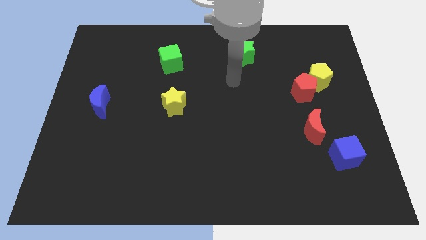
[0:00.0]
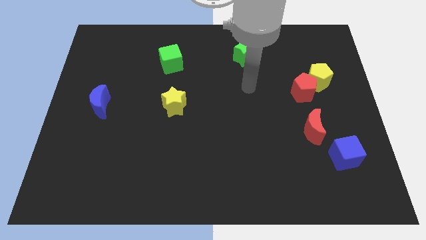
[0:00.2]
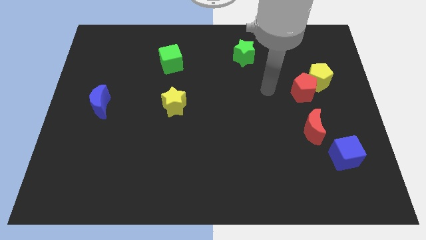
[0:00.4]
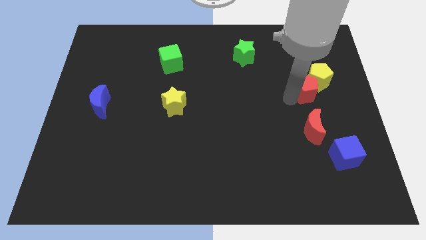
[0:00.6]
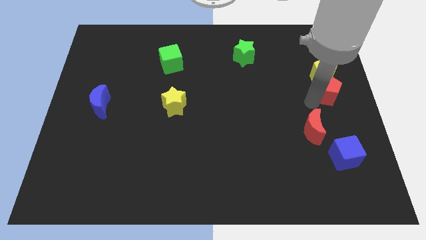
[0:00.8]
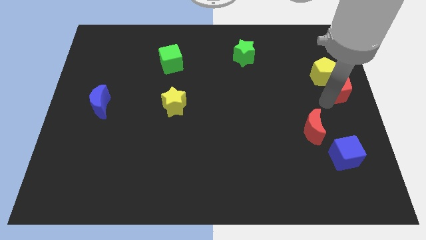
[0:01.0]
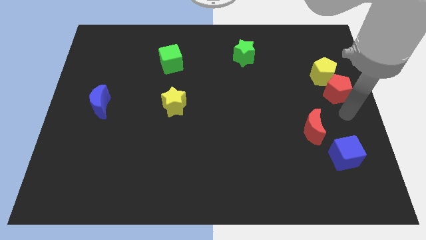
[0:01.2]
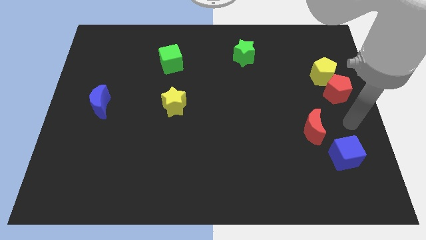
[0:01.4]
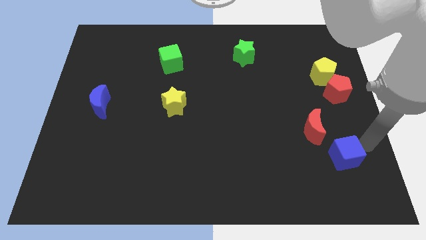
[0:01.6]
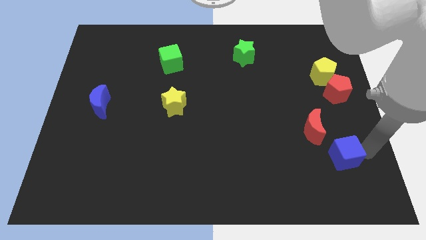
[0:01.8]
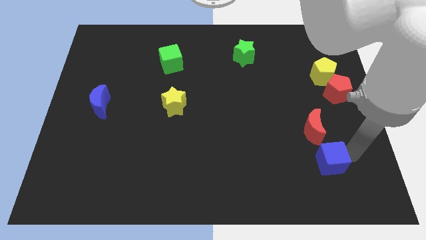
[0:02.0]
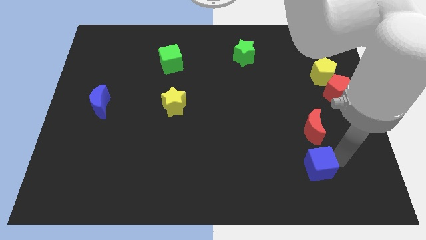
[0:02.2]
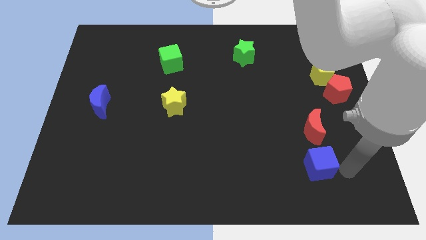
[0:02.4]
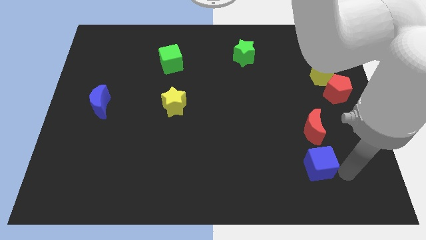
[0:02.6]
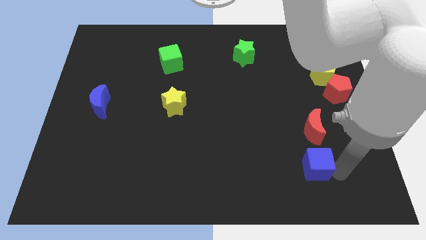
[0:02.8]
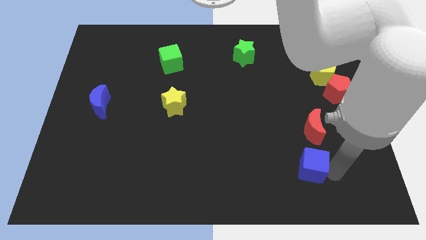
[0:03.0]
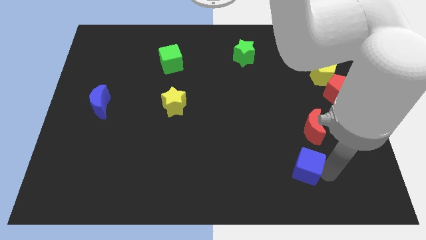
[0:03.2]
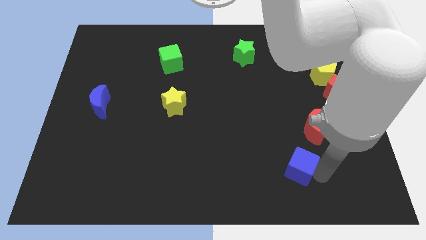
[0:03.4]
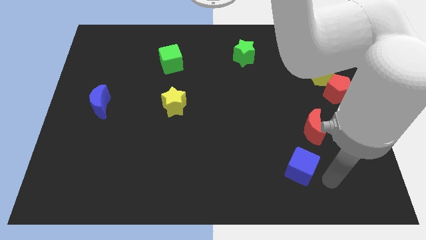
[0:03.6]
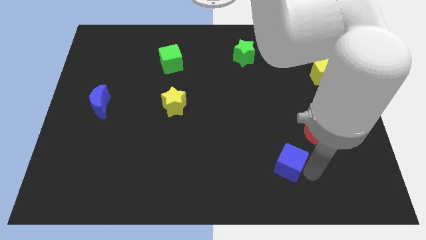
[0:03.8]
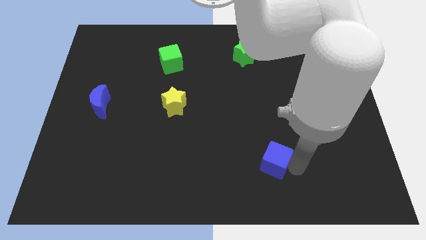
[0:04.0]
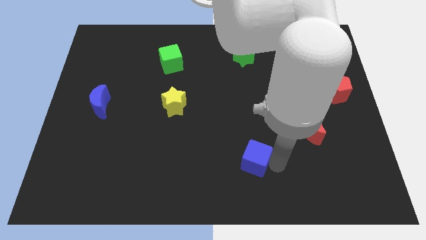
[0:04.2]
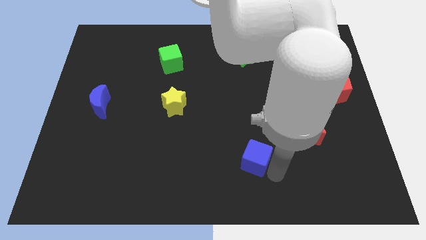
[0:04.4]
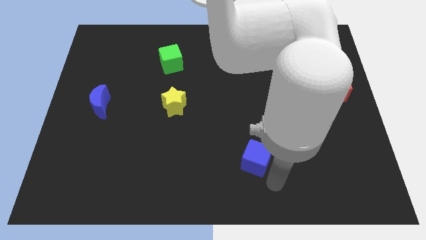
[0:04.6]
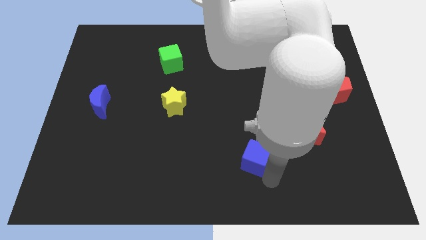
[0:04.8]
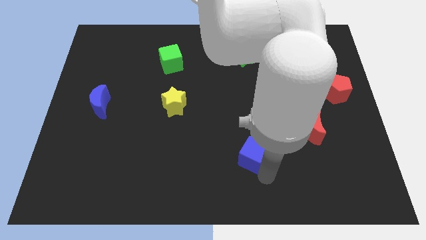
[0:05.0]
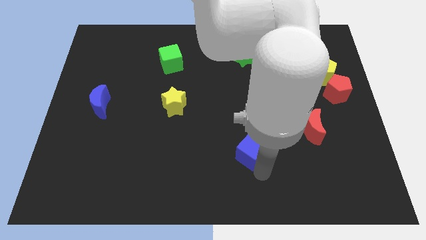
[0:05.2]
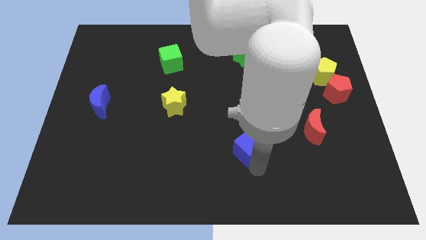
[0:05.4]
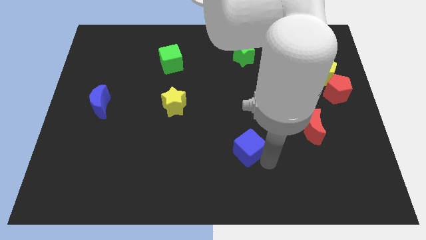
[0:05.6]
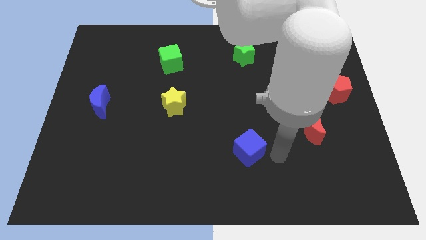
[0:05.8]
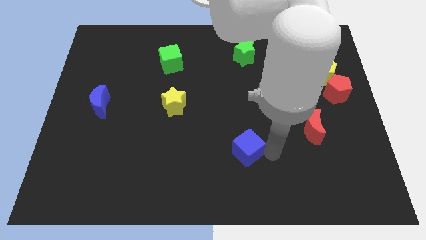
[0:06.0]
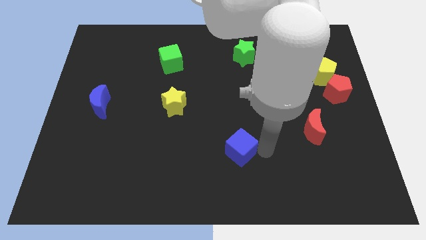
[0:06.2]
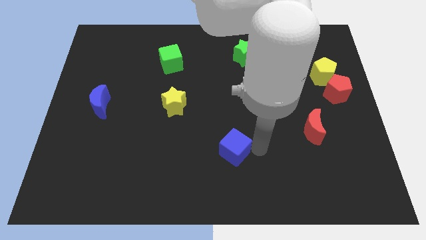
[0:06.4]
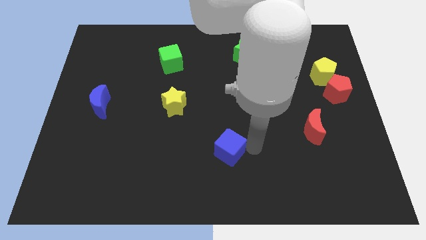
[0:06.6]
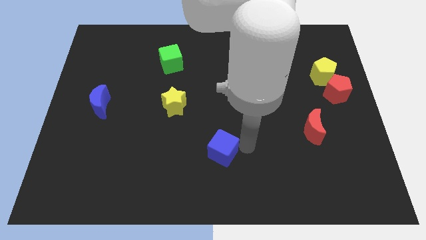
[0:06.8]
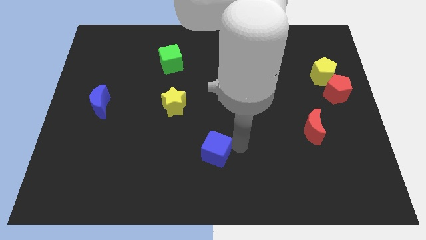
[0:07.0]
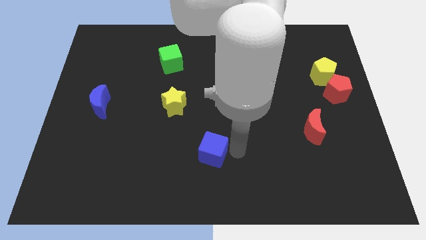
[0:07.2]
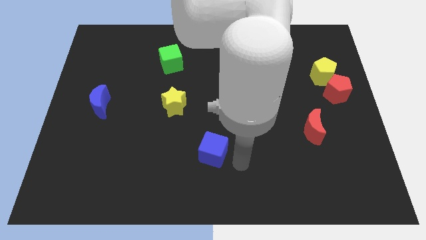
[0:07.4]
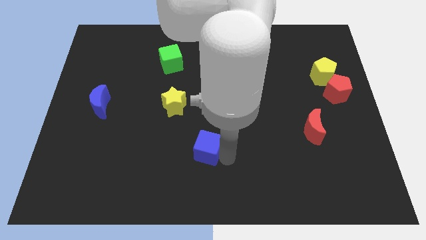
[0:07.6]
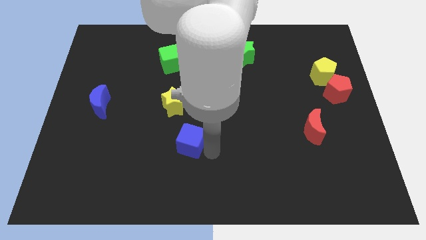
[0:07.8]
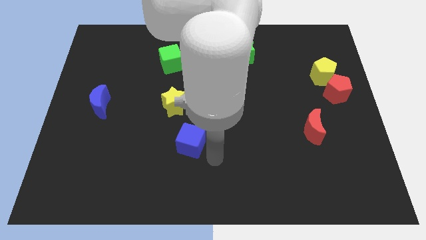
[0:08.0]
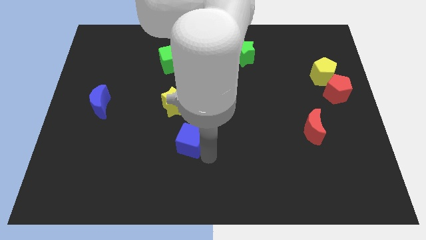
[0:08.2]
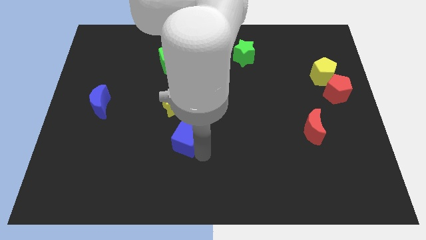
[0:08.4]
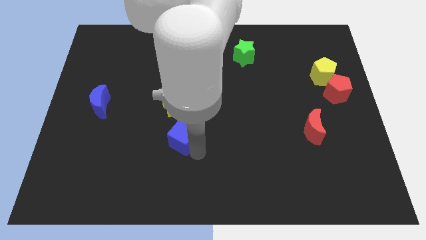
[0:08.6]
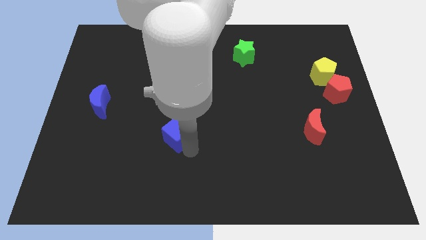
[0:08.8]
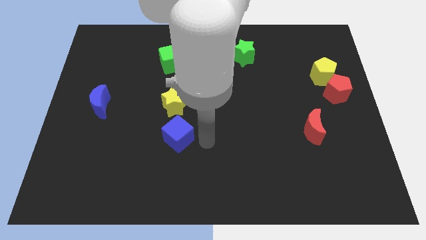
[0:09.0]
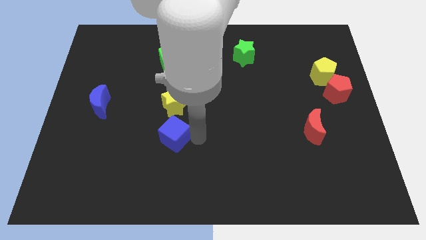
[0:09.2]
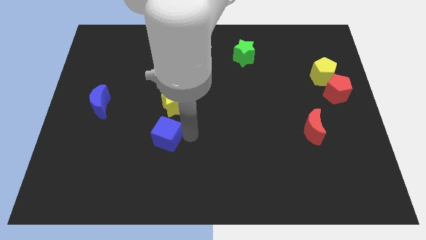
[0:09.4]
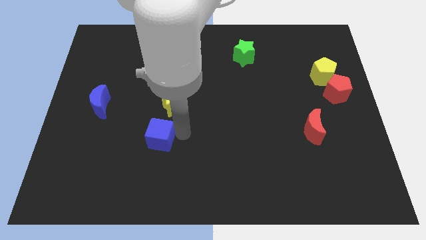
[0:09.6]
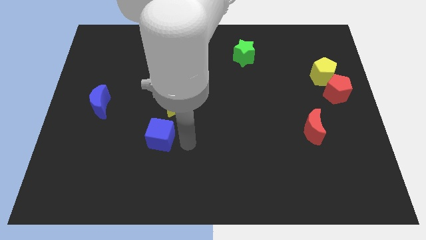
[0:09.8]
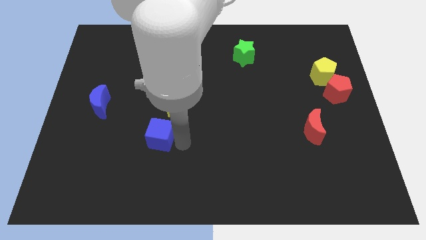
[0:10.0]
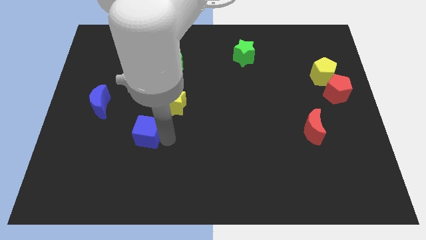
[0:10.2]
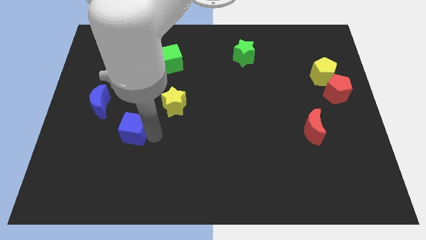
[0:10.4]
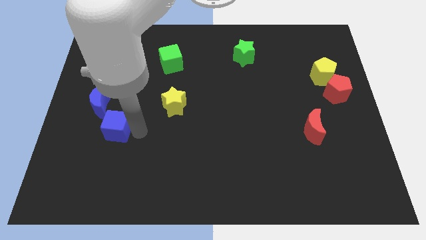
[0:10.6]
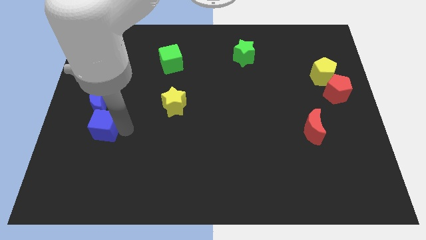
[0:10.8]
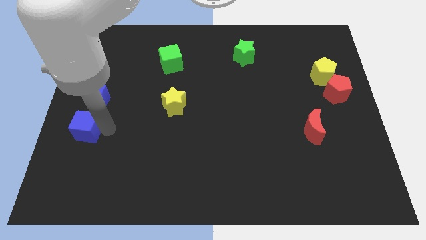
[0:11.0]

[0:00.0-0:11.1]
push the blue cube to the left side

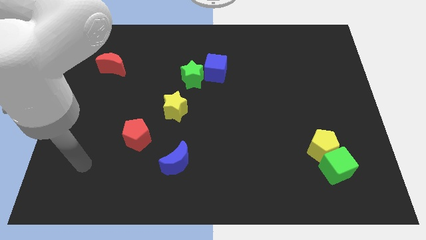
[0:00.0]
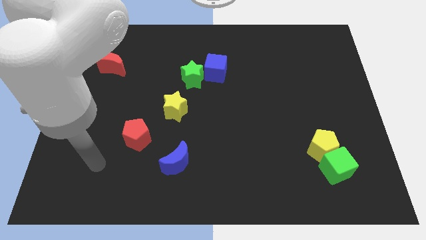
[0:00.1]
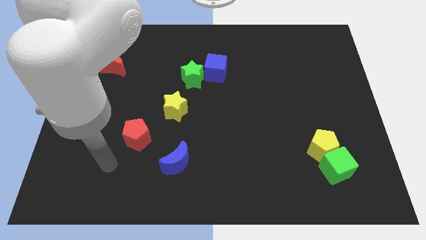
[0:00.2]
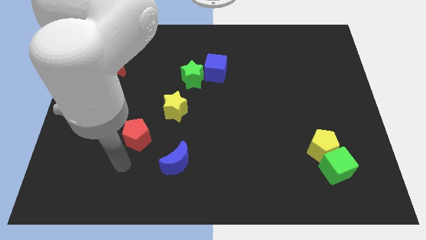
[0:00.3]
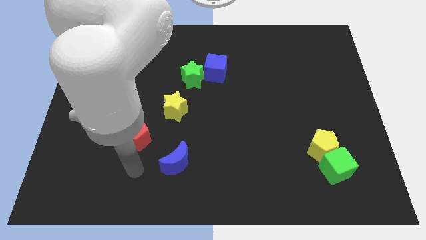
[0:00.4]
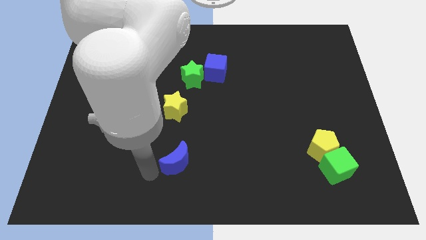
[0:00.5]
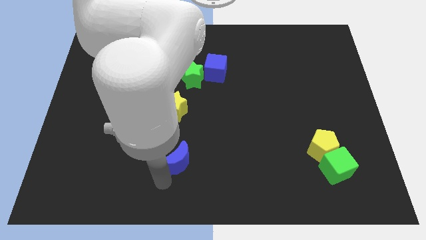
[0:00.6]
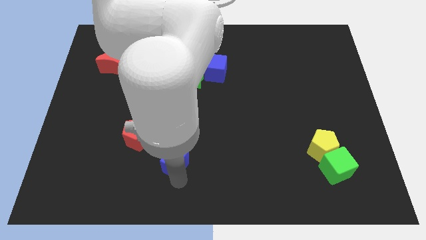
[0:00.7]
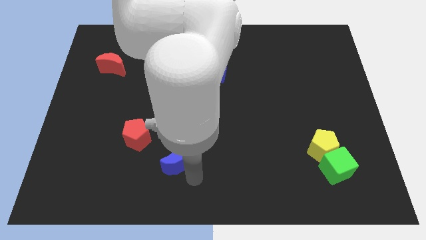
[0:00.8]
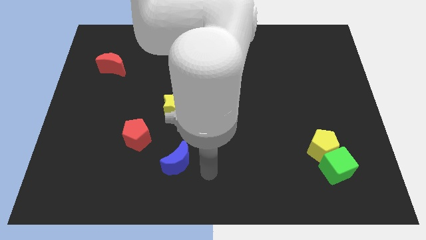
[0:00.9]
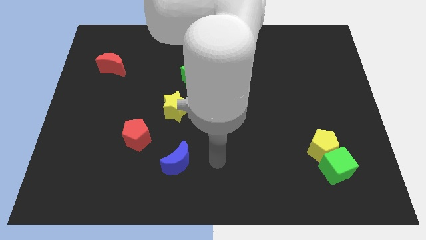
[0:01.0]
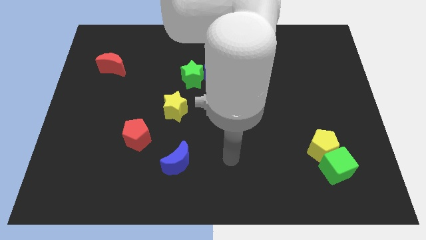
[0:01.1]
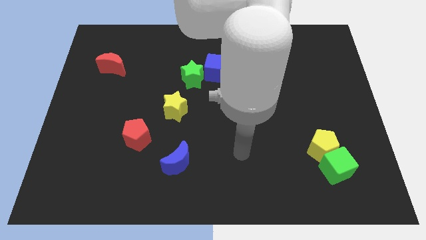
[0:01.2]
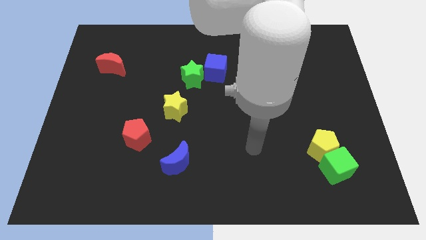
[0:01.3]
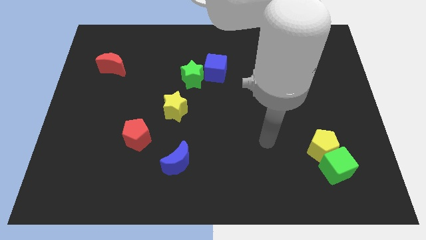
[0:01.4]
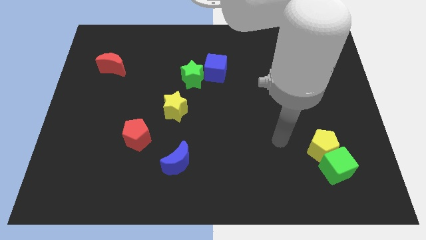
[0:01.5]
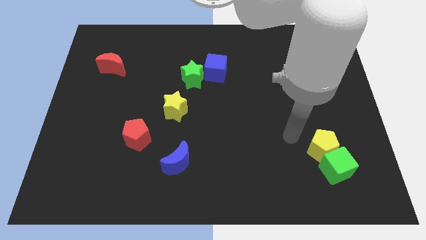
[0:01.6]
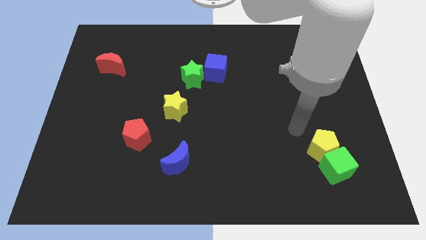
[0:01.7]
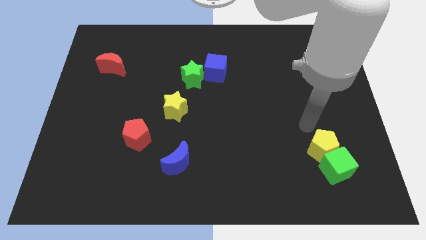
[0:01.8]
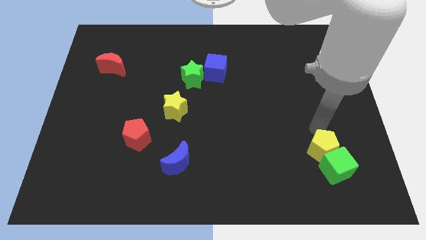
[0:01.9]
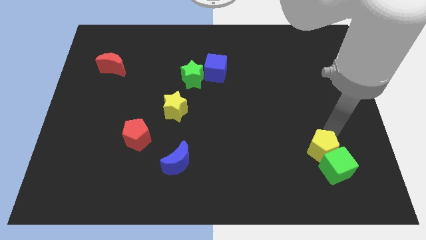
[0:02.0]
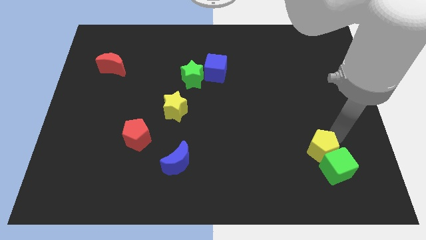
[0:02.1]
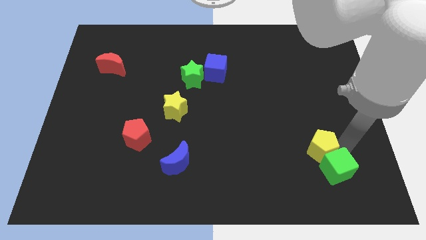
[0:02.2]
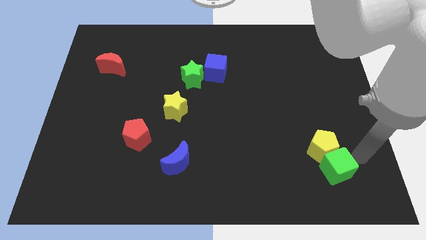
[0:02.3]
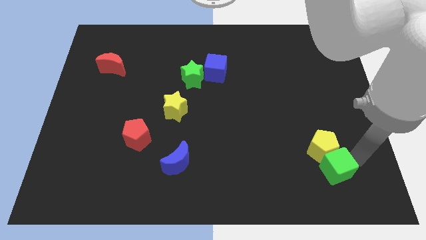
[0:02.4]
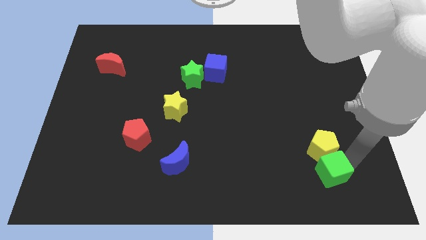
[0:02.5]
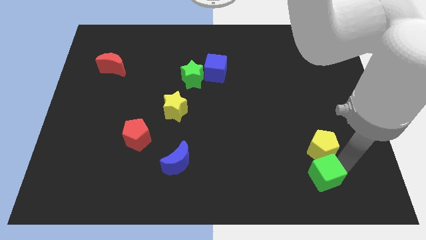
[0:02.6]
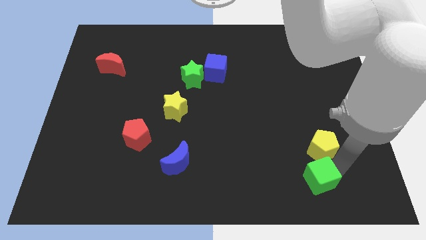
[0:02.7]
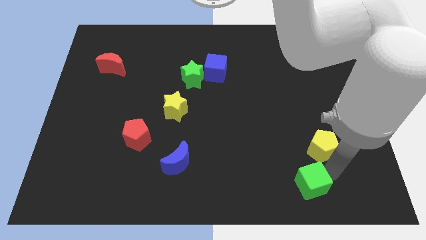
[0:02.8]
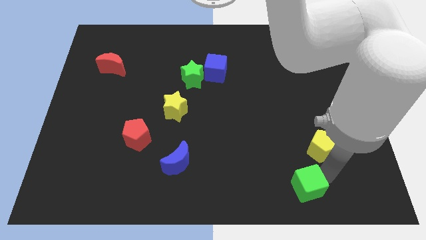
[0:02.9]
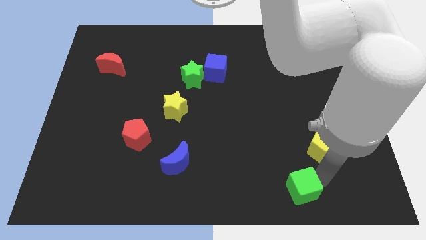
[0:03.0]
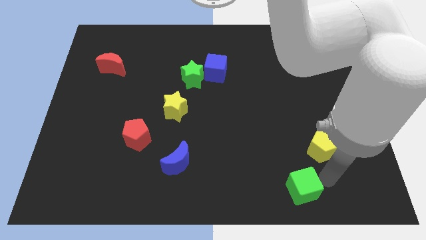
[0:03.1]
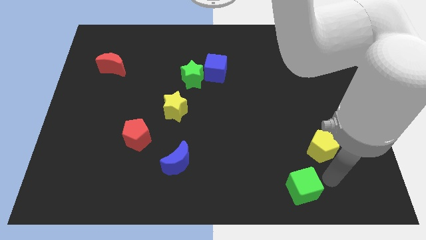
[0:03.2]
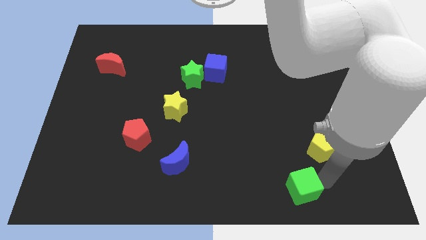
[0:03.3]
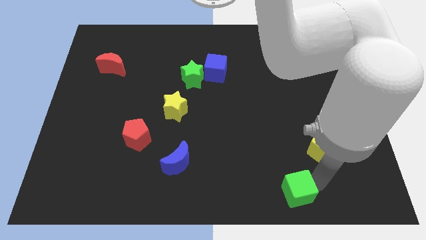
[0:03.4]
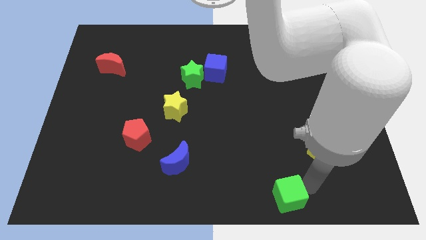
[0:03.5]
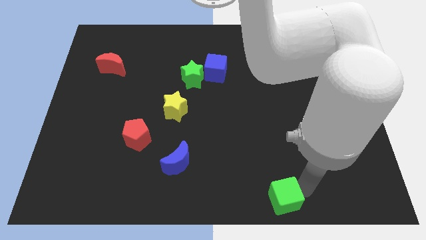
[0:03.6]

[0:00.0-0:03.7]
move the green cube to the bottom side
